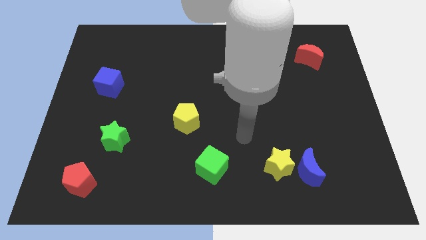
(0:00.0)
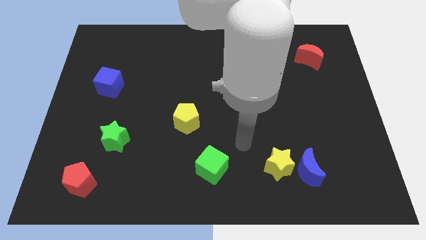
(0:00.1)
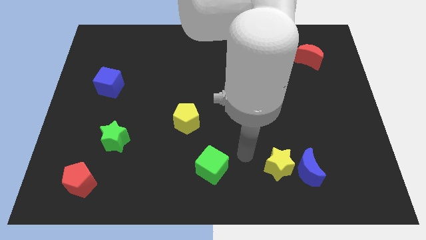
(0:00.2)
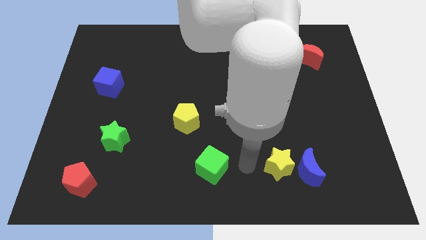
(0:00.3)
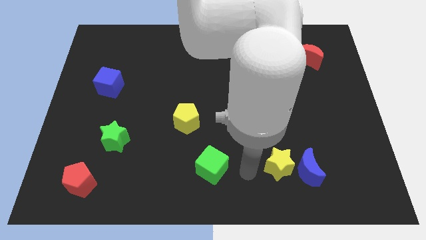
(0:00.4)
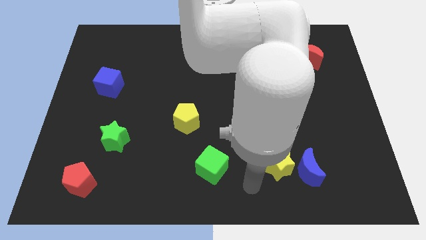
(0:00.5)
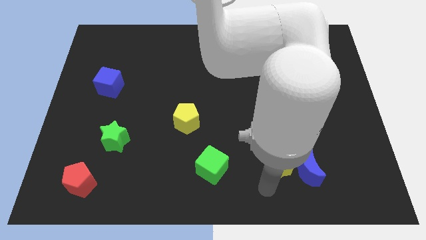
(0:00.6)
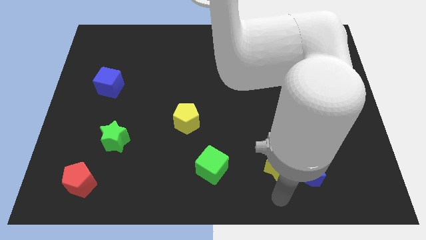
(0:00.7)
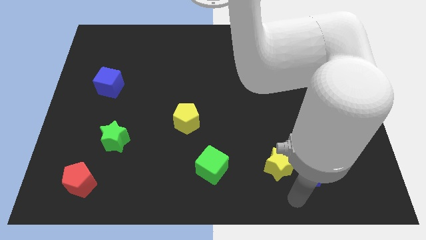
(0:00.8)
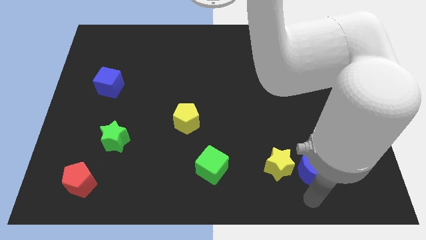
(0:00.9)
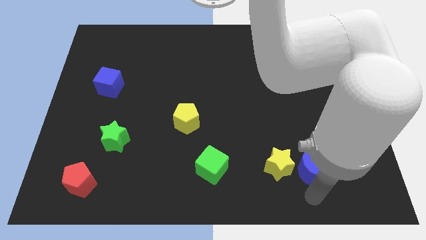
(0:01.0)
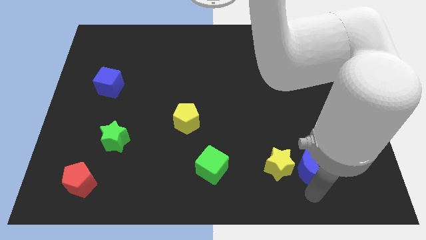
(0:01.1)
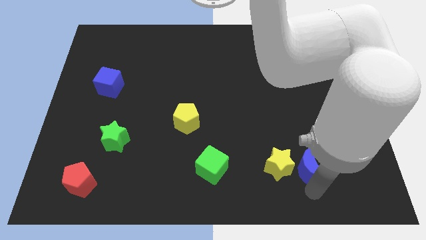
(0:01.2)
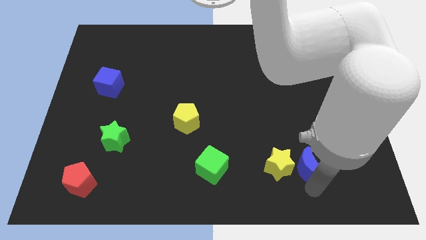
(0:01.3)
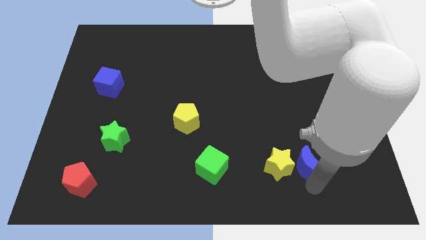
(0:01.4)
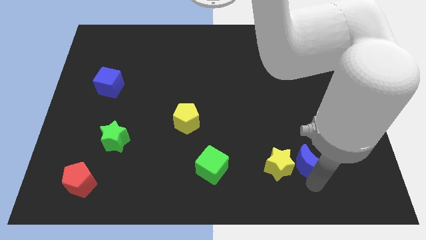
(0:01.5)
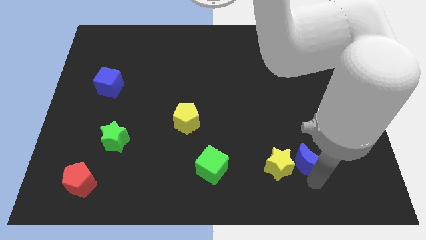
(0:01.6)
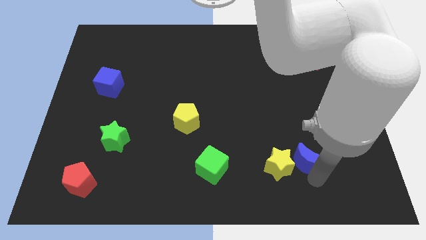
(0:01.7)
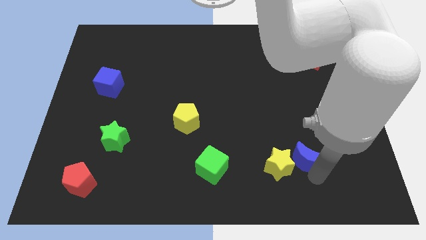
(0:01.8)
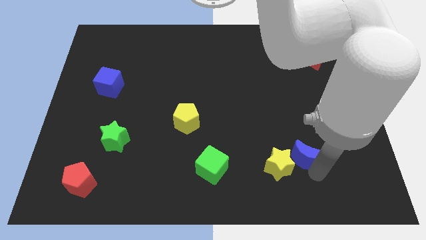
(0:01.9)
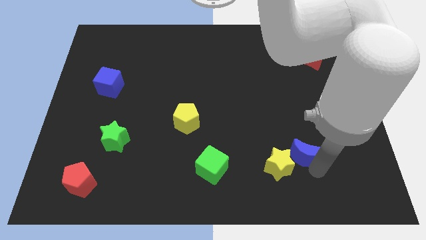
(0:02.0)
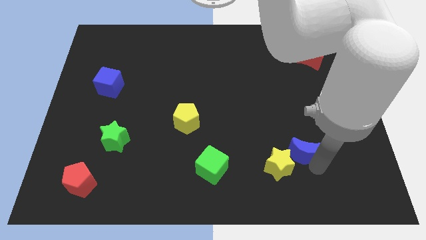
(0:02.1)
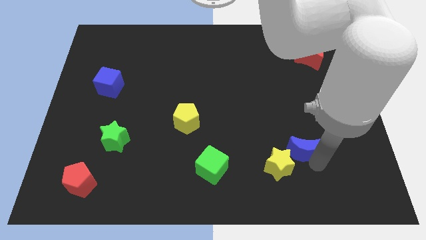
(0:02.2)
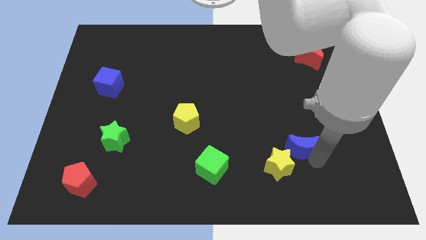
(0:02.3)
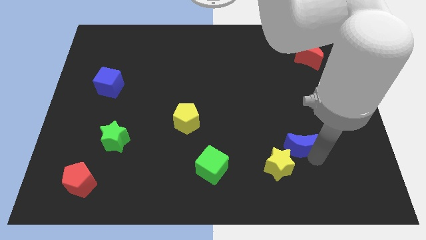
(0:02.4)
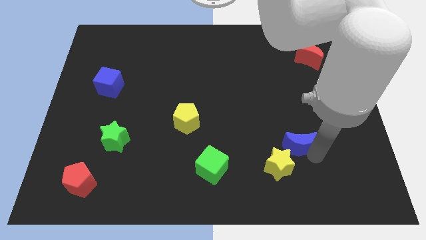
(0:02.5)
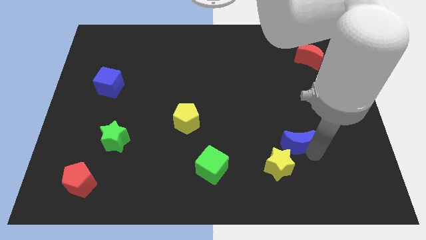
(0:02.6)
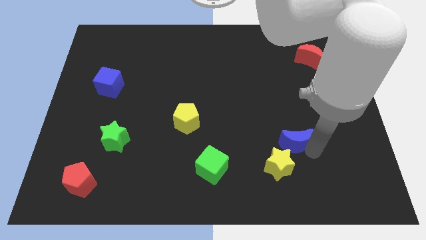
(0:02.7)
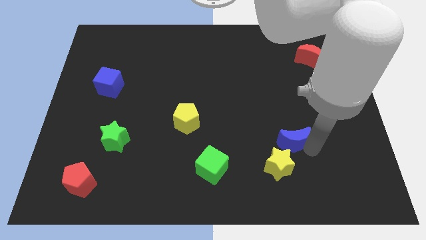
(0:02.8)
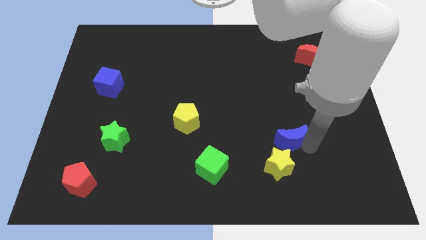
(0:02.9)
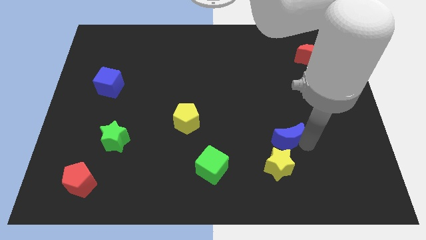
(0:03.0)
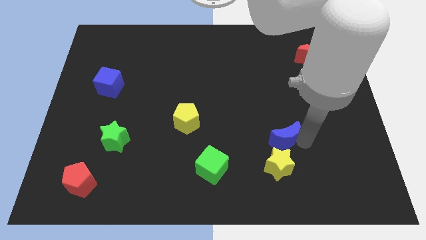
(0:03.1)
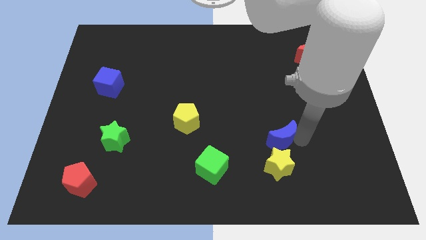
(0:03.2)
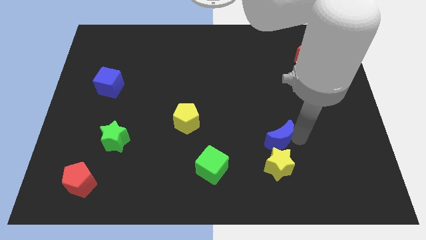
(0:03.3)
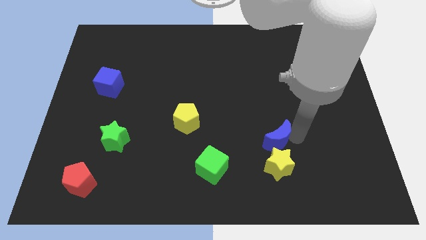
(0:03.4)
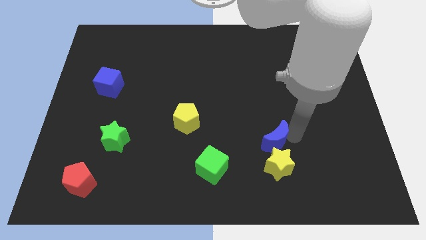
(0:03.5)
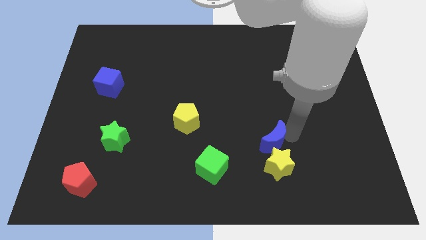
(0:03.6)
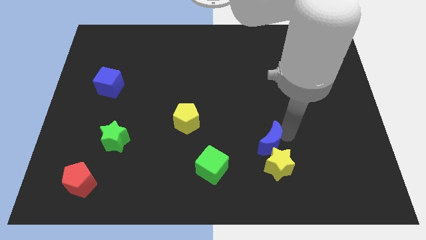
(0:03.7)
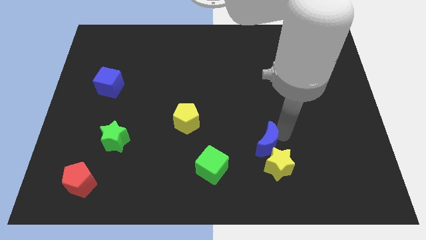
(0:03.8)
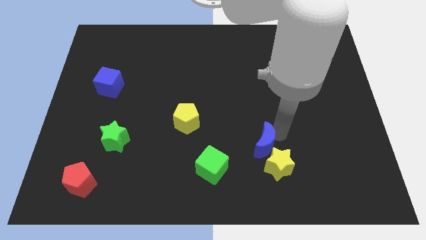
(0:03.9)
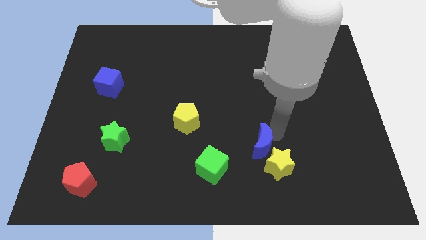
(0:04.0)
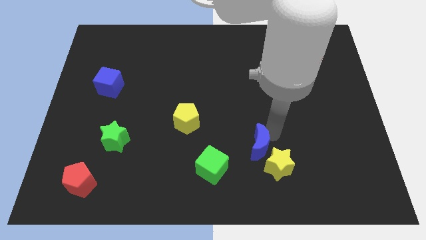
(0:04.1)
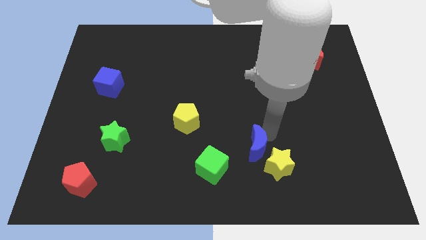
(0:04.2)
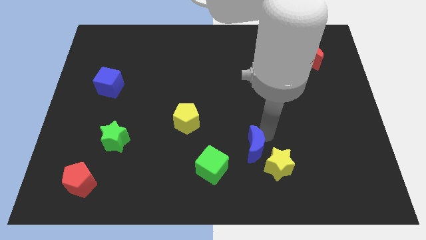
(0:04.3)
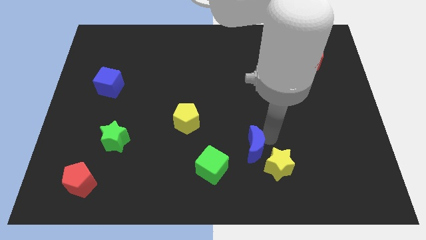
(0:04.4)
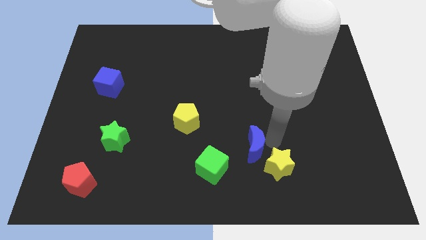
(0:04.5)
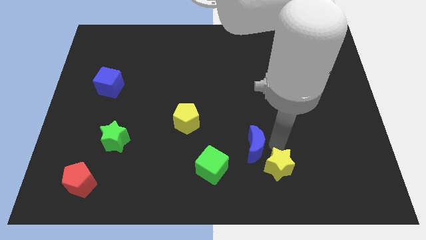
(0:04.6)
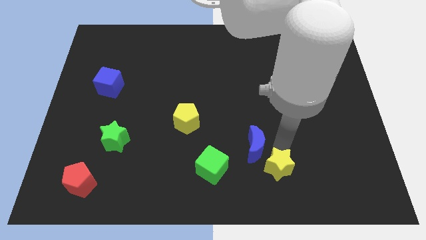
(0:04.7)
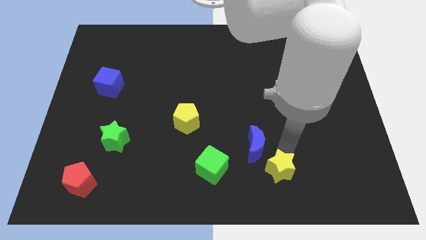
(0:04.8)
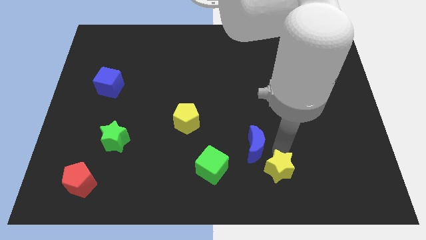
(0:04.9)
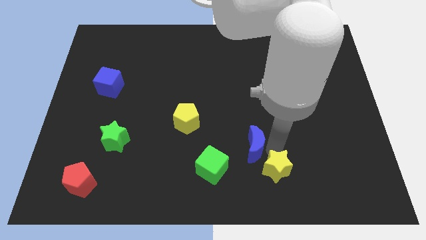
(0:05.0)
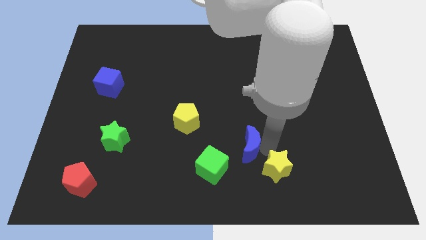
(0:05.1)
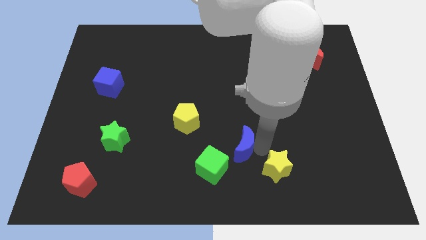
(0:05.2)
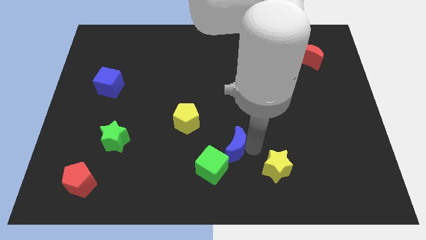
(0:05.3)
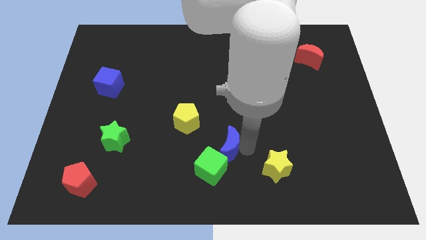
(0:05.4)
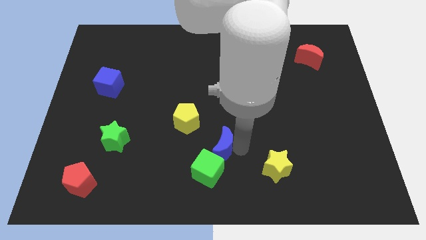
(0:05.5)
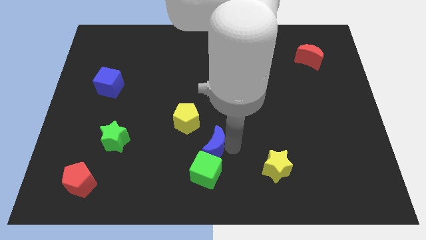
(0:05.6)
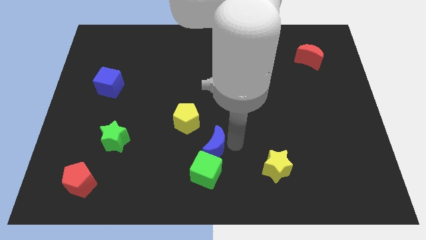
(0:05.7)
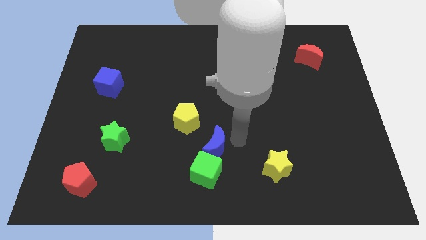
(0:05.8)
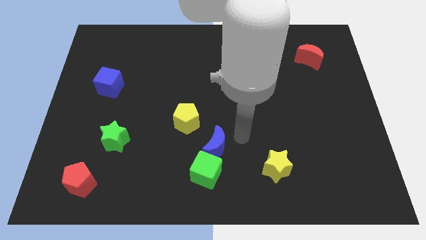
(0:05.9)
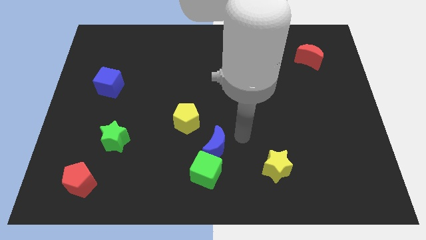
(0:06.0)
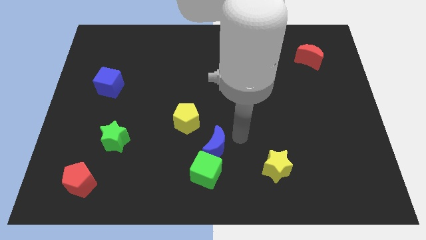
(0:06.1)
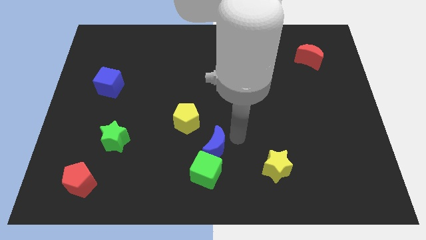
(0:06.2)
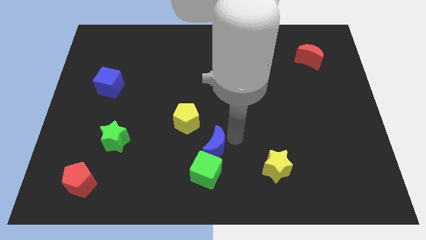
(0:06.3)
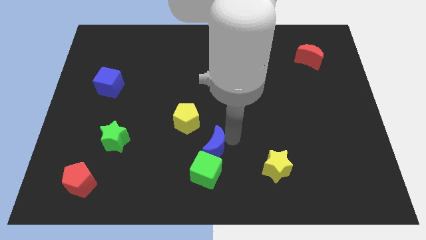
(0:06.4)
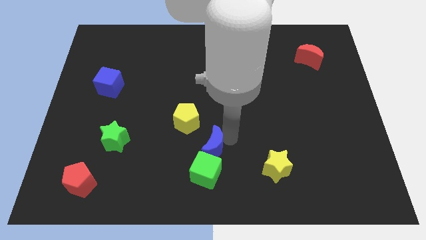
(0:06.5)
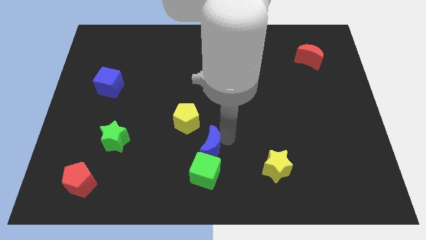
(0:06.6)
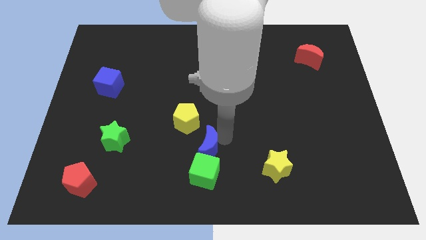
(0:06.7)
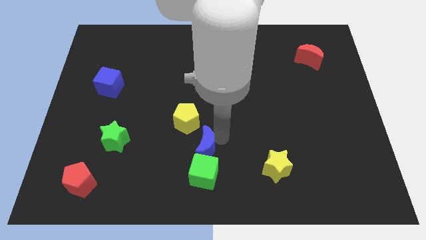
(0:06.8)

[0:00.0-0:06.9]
put the blue moon to the bottom side of the yellow pentagon
